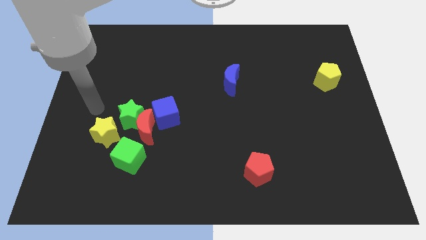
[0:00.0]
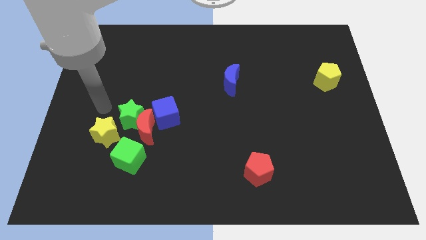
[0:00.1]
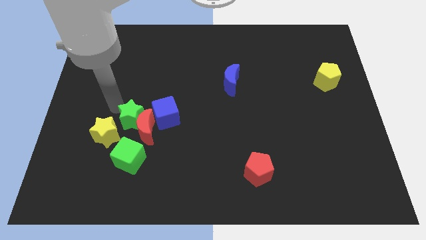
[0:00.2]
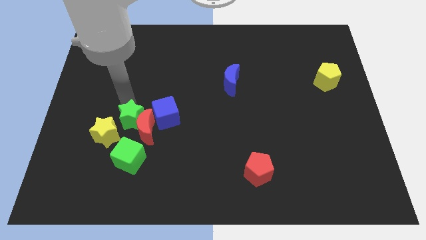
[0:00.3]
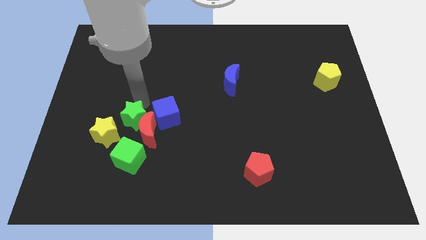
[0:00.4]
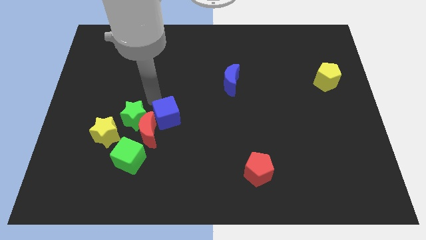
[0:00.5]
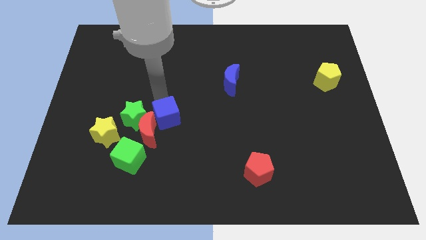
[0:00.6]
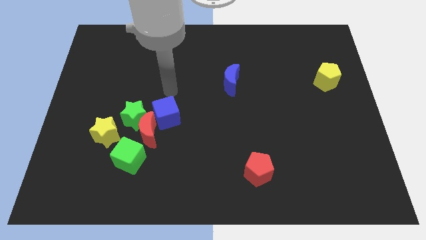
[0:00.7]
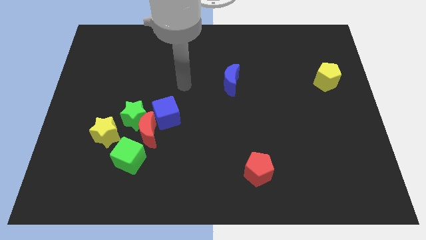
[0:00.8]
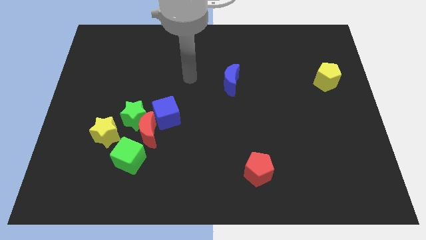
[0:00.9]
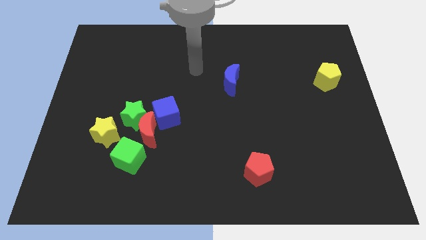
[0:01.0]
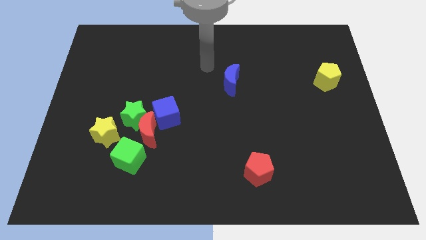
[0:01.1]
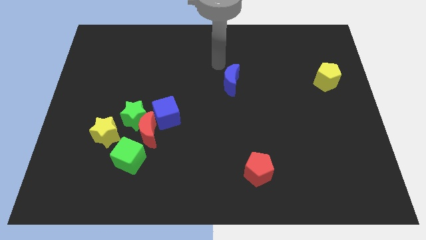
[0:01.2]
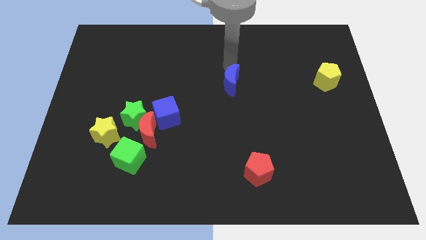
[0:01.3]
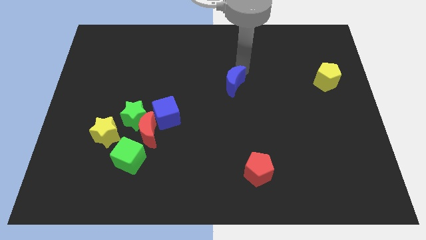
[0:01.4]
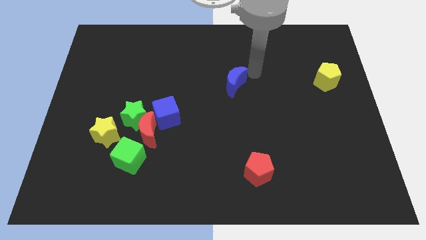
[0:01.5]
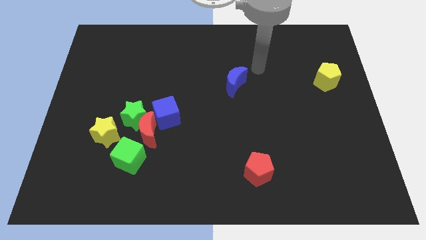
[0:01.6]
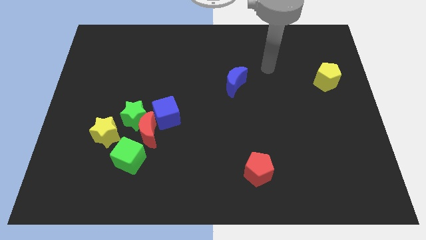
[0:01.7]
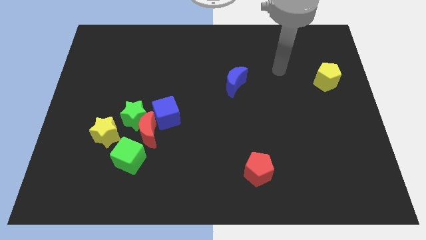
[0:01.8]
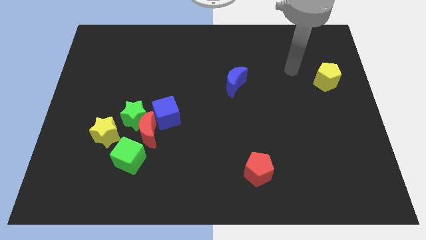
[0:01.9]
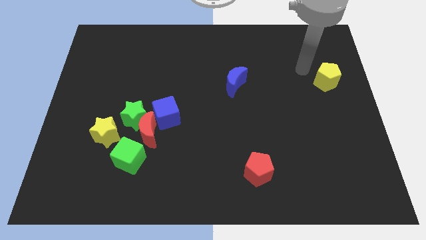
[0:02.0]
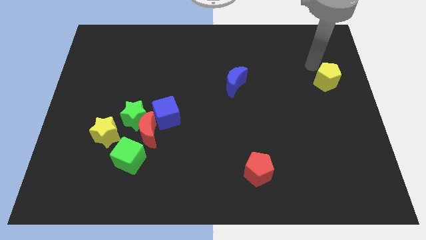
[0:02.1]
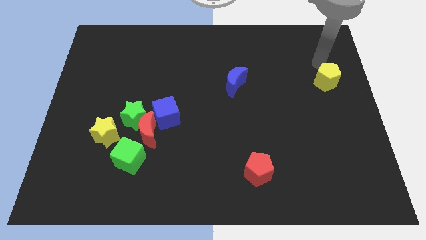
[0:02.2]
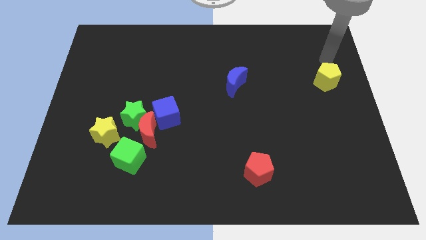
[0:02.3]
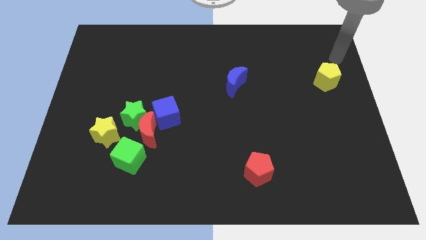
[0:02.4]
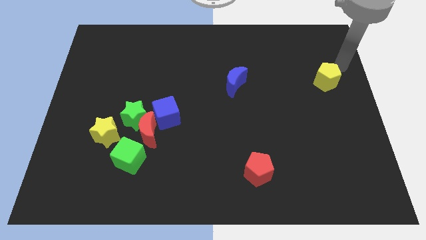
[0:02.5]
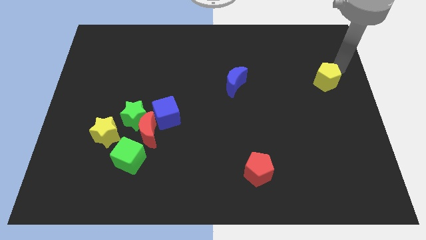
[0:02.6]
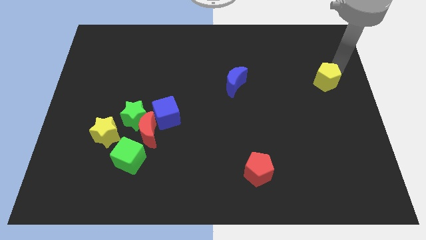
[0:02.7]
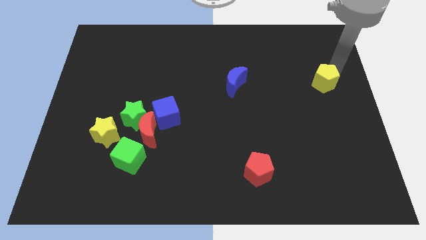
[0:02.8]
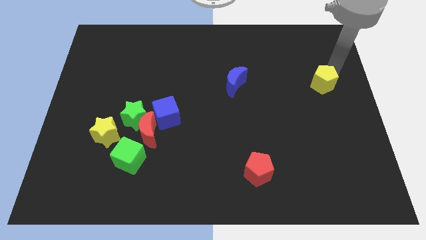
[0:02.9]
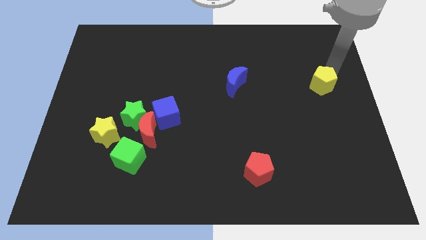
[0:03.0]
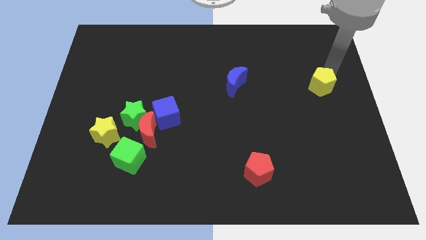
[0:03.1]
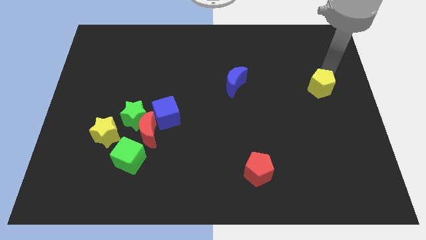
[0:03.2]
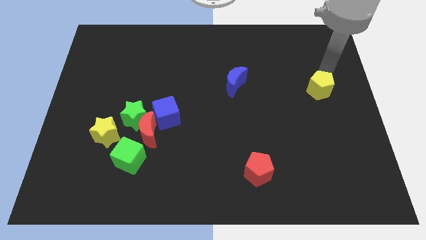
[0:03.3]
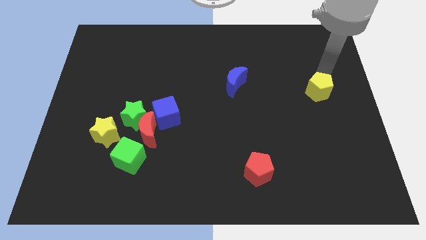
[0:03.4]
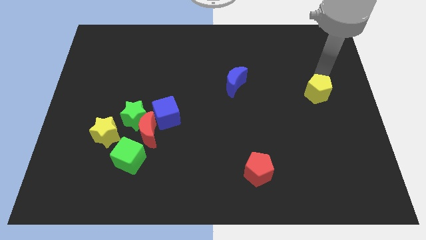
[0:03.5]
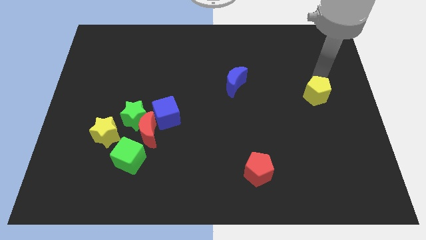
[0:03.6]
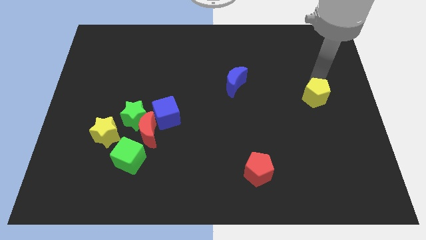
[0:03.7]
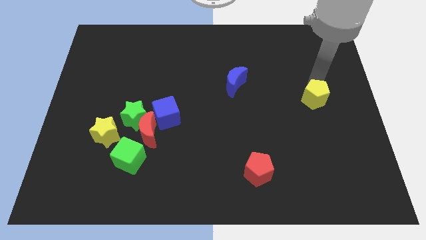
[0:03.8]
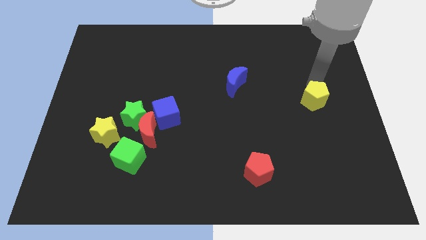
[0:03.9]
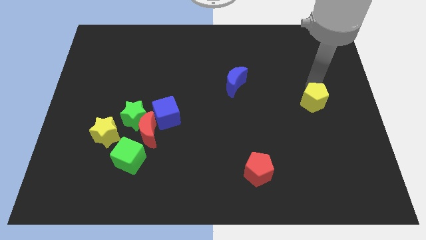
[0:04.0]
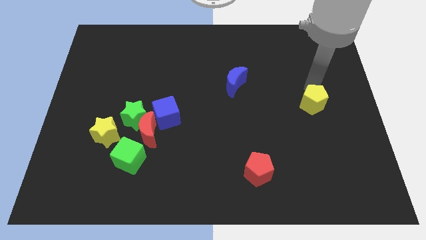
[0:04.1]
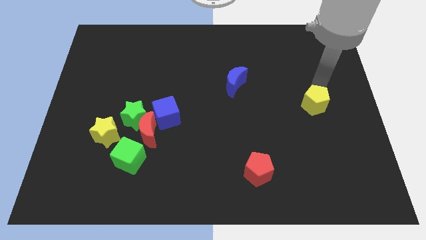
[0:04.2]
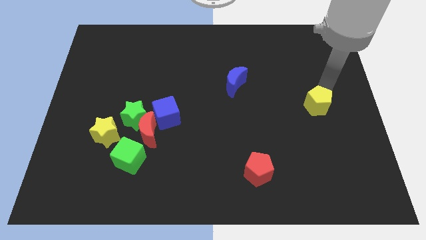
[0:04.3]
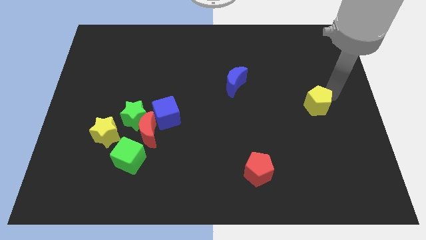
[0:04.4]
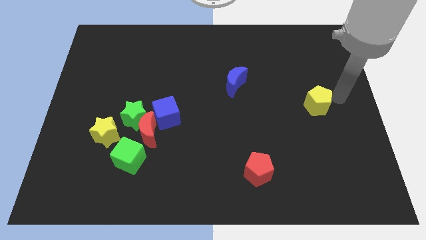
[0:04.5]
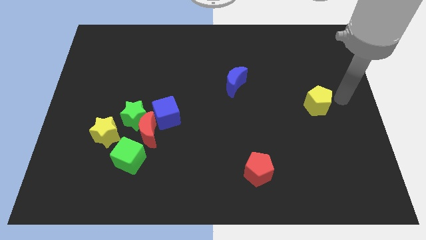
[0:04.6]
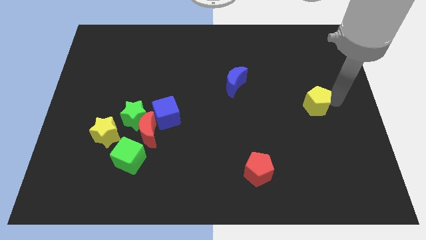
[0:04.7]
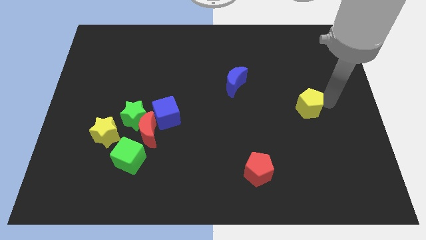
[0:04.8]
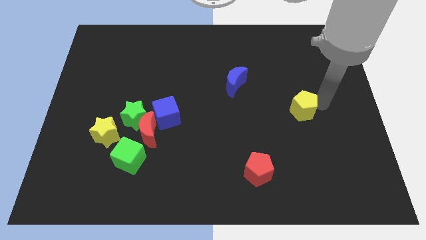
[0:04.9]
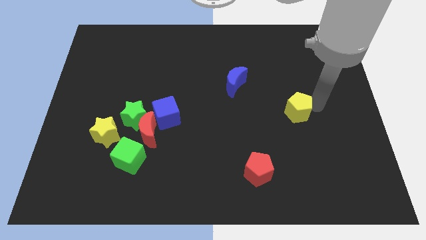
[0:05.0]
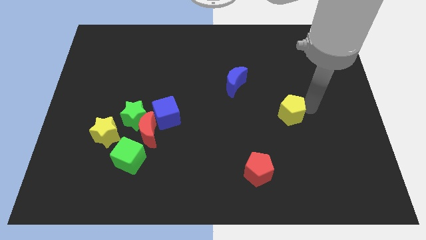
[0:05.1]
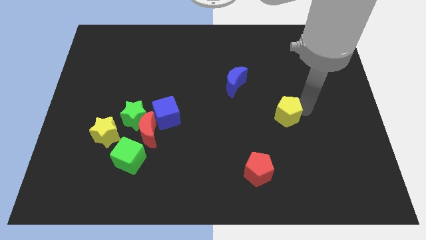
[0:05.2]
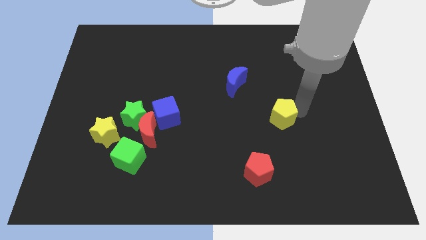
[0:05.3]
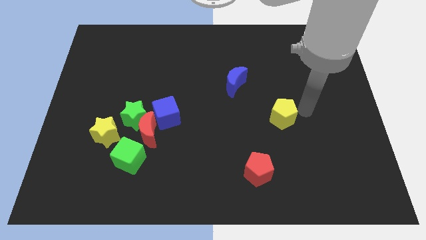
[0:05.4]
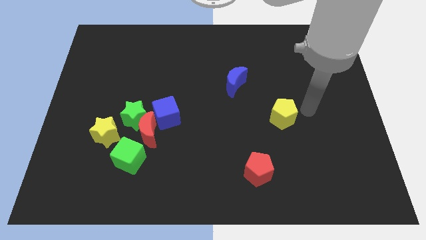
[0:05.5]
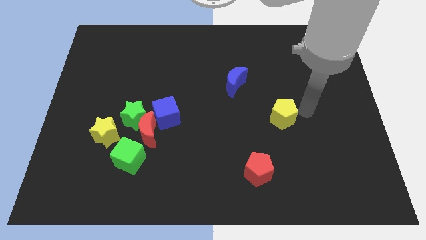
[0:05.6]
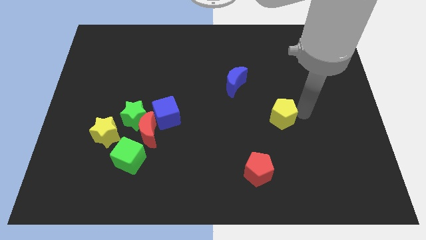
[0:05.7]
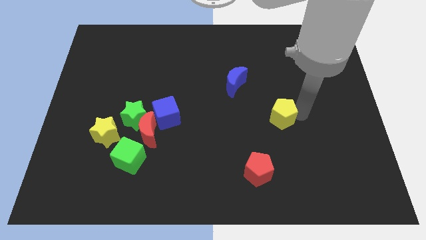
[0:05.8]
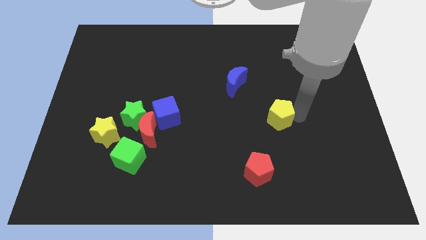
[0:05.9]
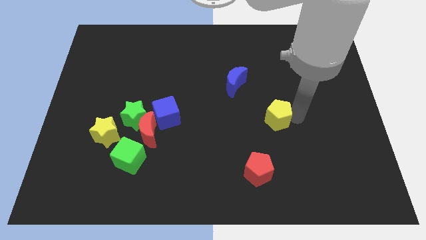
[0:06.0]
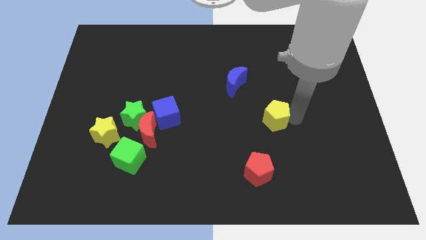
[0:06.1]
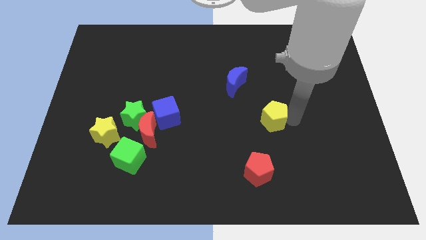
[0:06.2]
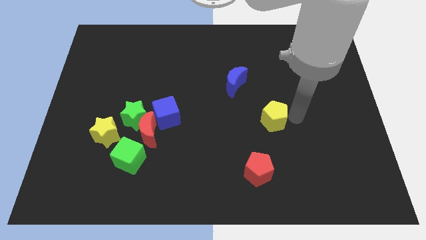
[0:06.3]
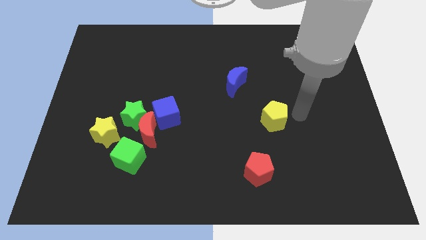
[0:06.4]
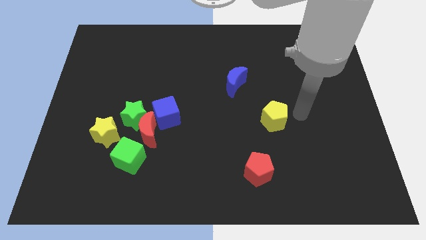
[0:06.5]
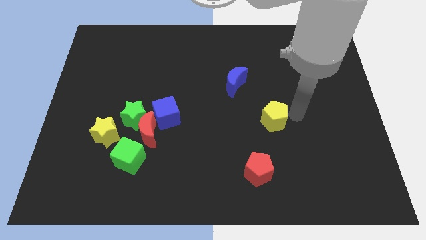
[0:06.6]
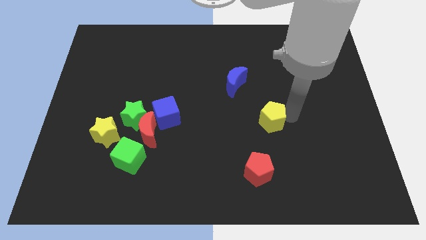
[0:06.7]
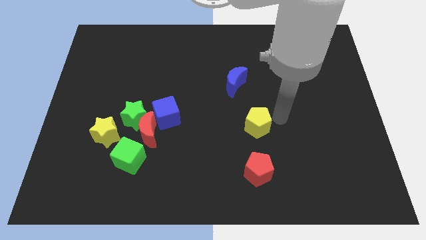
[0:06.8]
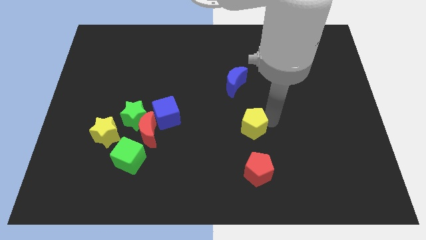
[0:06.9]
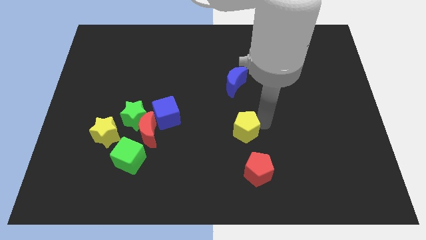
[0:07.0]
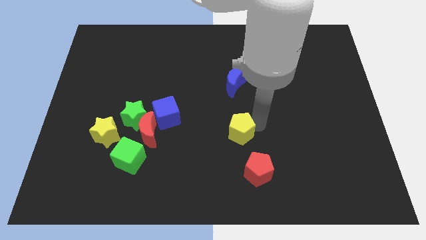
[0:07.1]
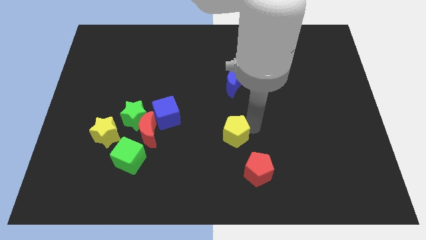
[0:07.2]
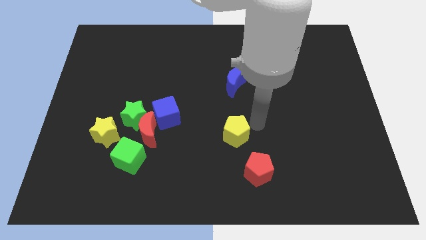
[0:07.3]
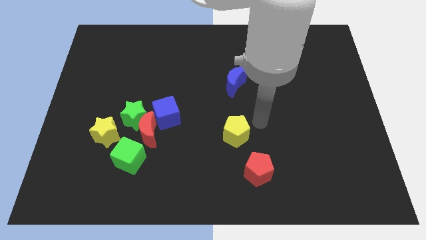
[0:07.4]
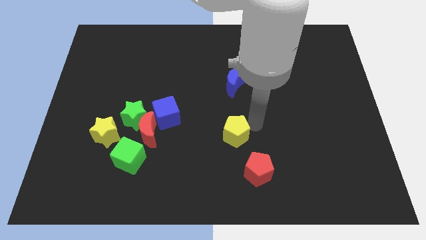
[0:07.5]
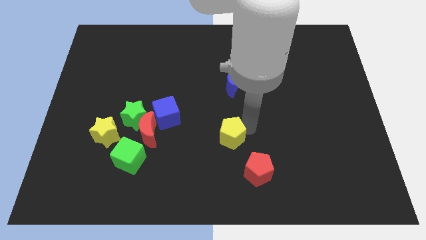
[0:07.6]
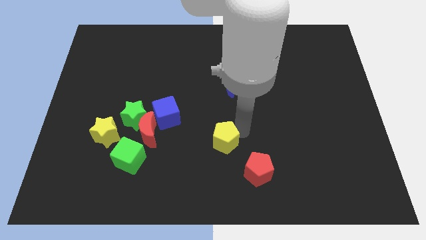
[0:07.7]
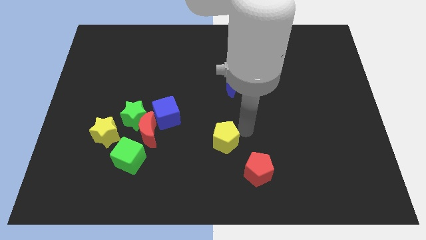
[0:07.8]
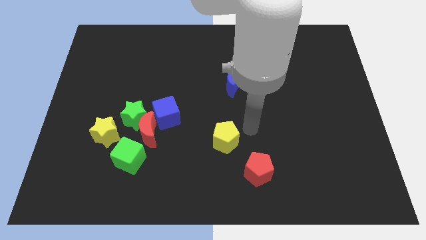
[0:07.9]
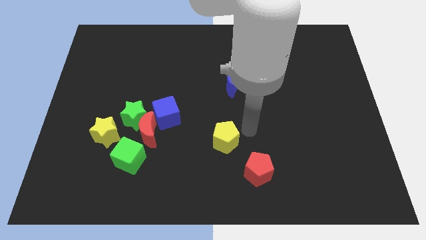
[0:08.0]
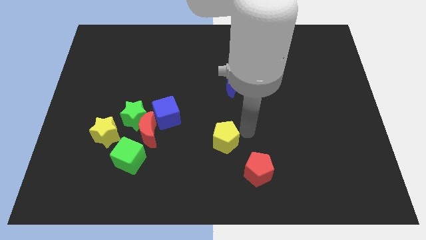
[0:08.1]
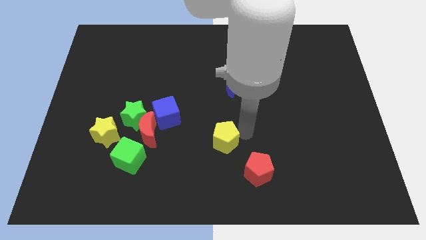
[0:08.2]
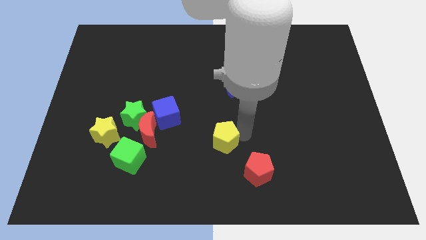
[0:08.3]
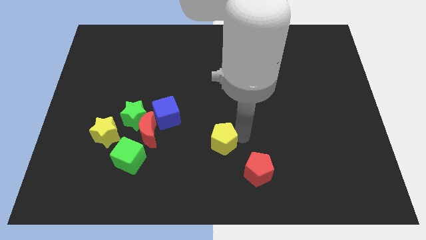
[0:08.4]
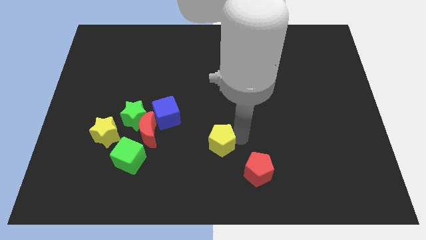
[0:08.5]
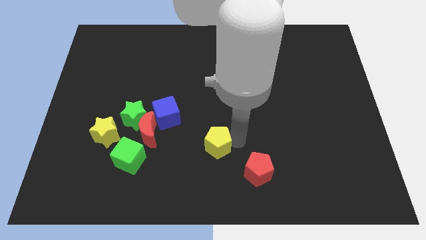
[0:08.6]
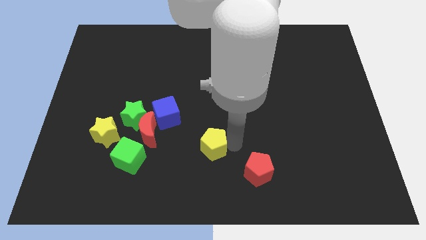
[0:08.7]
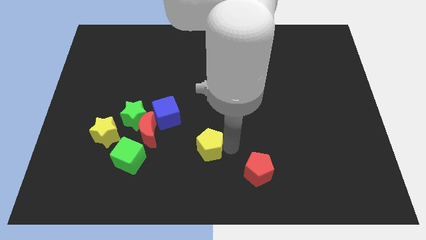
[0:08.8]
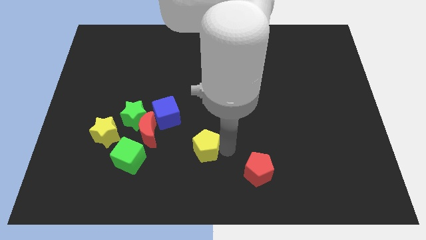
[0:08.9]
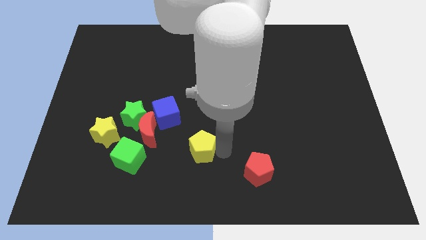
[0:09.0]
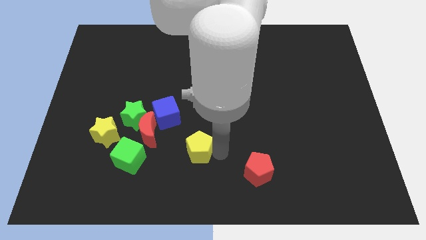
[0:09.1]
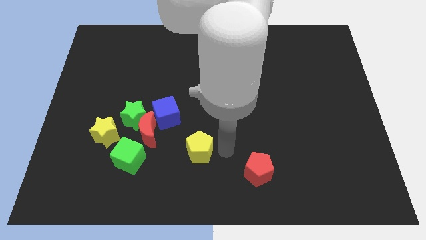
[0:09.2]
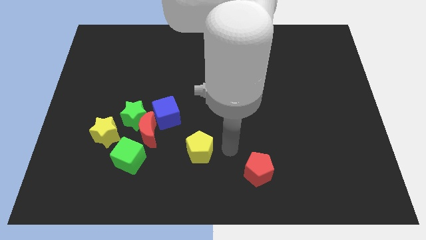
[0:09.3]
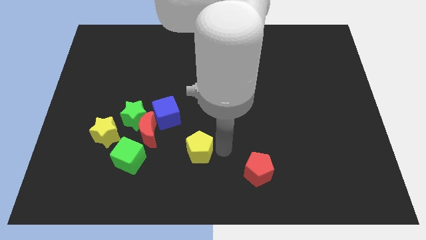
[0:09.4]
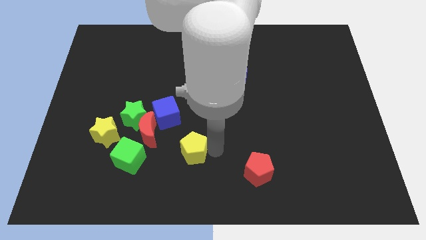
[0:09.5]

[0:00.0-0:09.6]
move the yellow pentagon to the bottom right of the red moon
